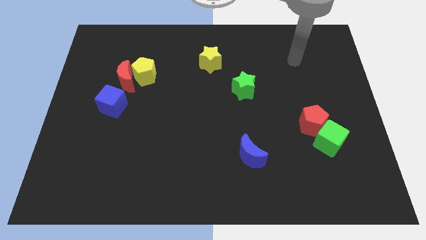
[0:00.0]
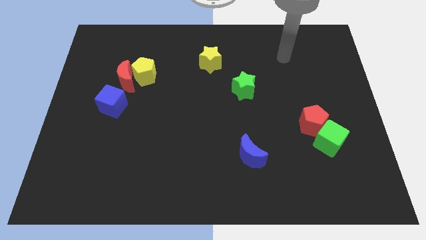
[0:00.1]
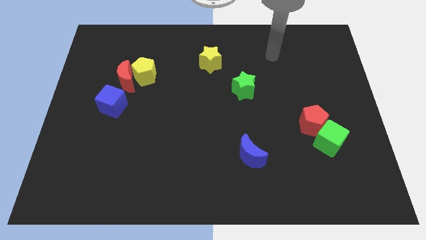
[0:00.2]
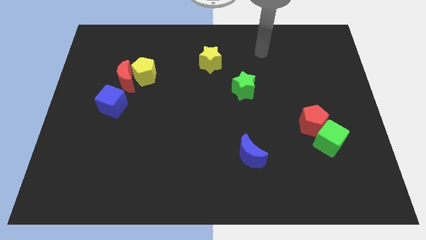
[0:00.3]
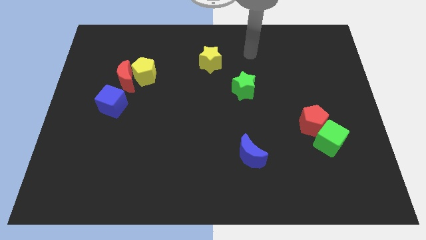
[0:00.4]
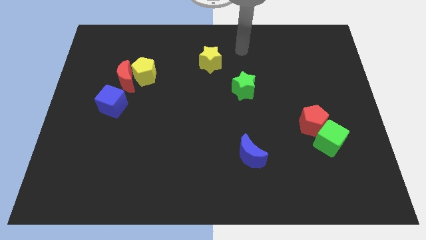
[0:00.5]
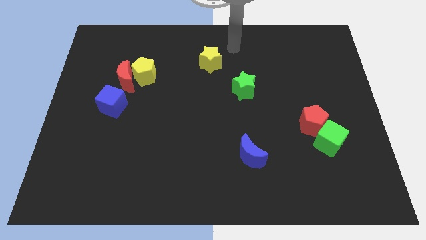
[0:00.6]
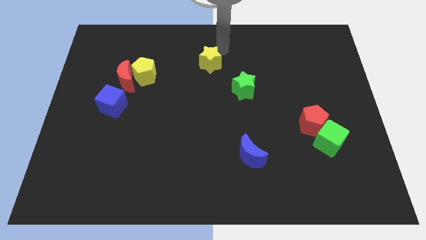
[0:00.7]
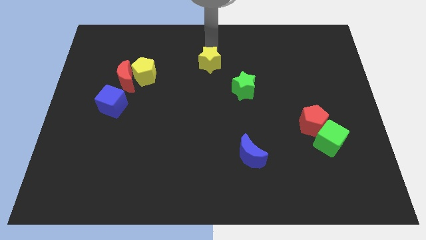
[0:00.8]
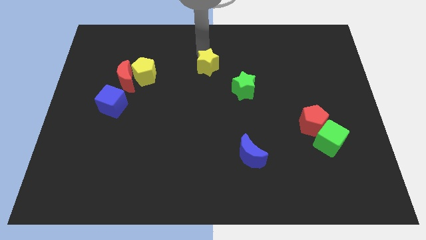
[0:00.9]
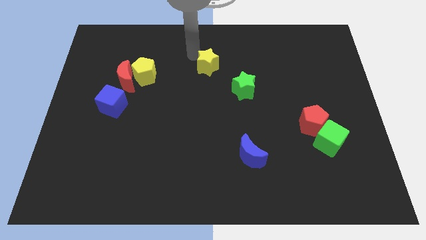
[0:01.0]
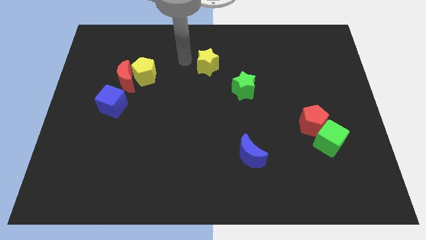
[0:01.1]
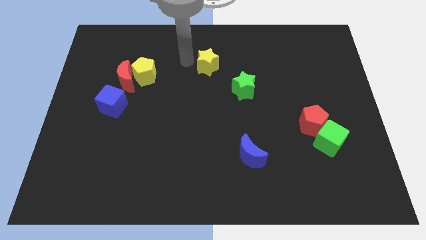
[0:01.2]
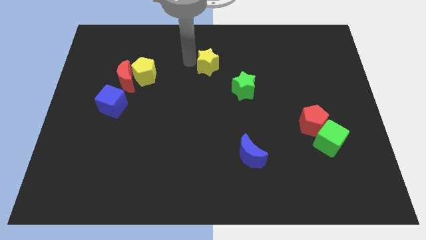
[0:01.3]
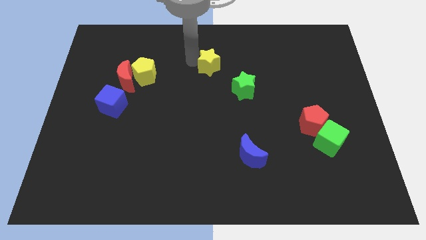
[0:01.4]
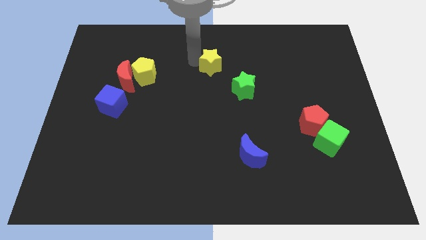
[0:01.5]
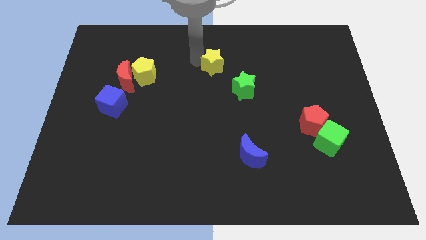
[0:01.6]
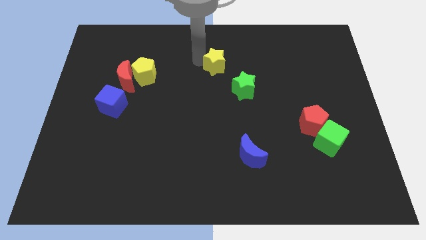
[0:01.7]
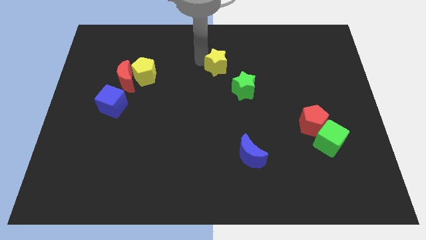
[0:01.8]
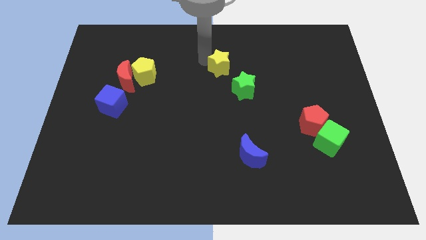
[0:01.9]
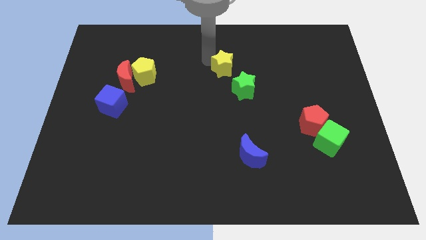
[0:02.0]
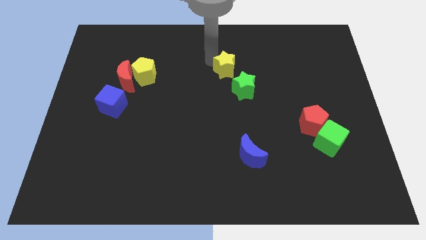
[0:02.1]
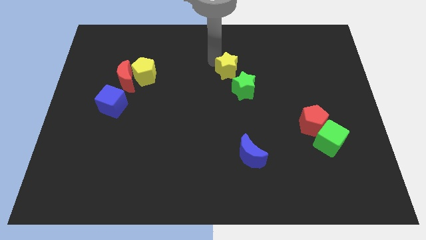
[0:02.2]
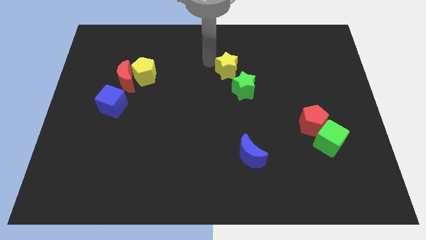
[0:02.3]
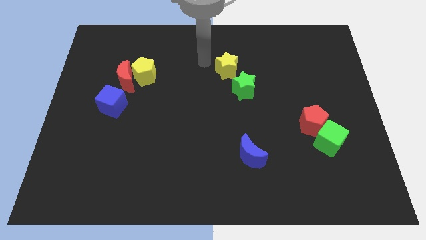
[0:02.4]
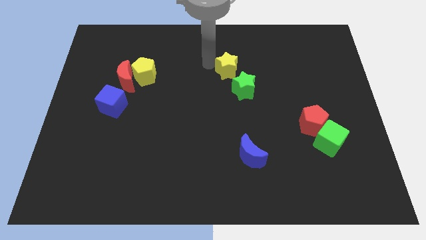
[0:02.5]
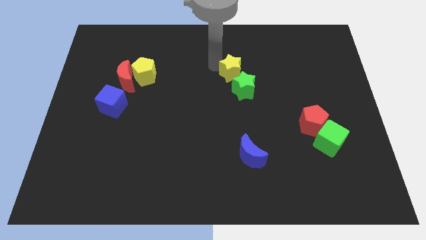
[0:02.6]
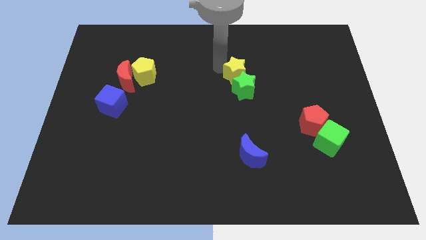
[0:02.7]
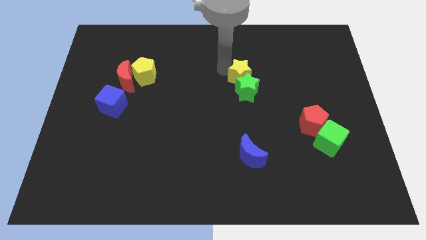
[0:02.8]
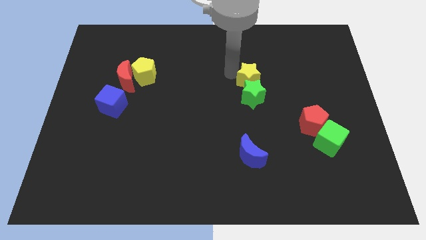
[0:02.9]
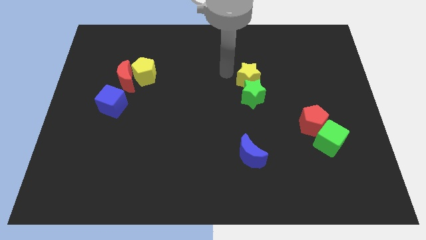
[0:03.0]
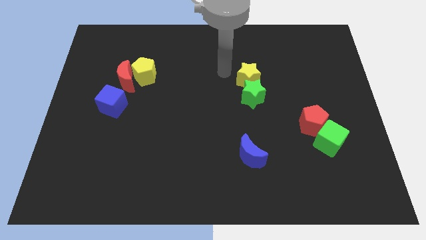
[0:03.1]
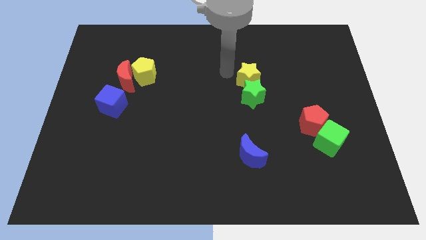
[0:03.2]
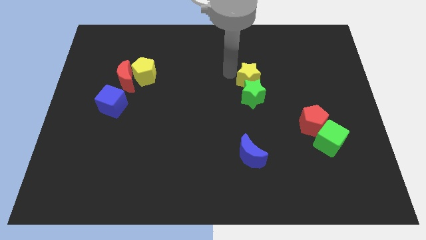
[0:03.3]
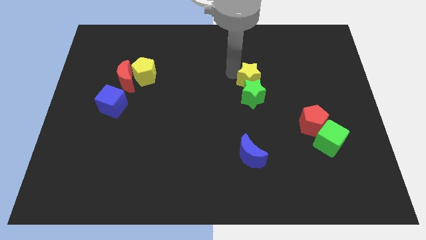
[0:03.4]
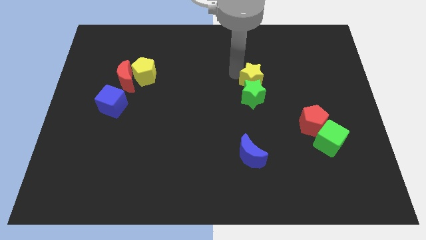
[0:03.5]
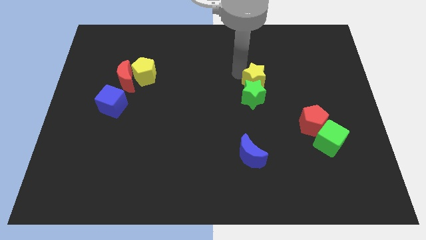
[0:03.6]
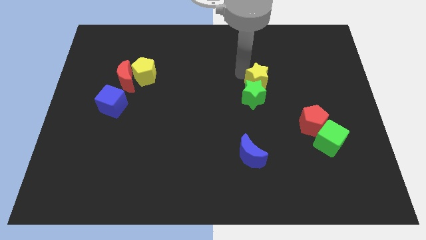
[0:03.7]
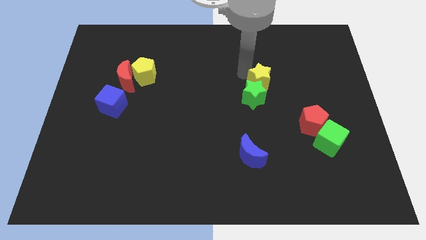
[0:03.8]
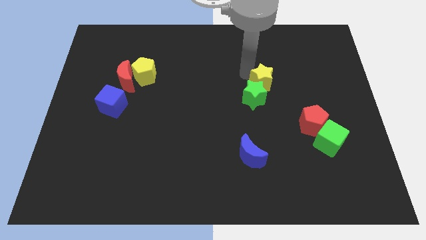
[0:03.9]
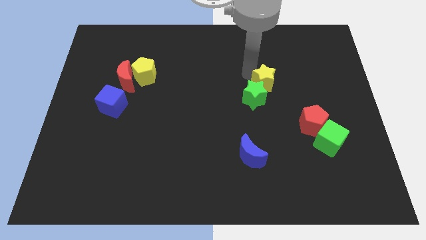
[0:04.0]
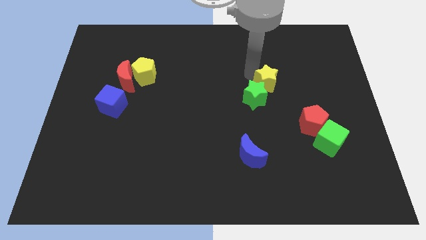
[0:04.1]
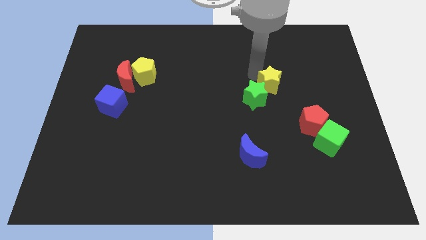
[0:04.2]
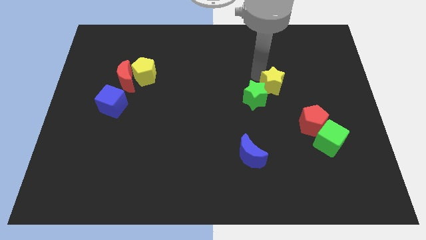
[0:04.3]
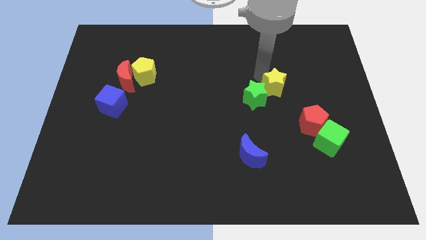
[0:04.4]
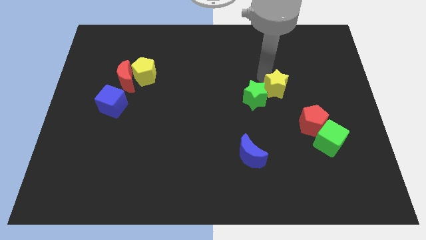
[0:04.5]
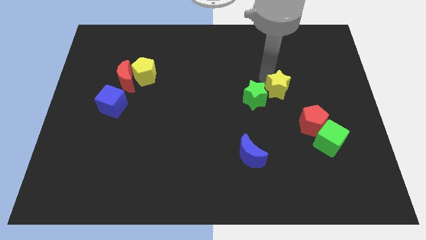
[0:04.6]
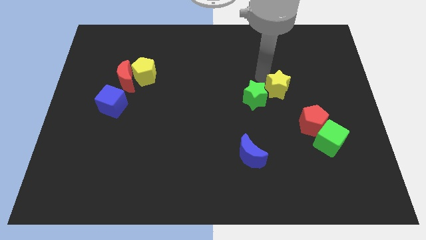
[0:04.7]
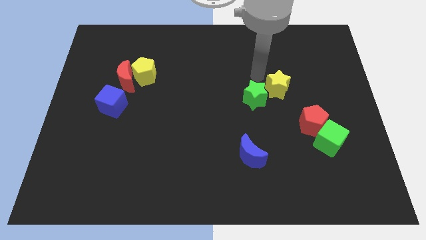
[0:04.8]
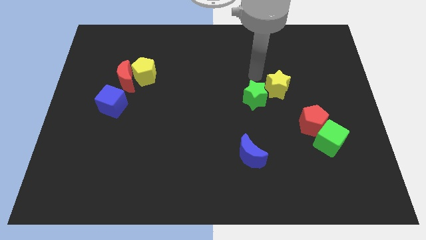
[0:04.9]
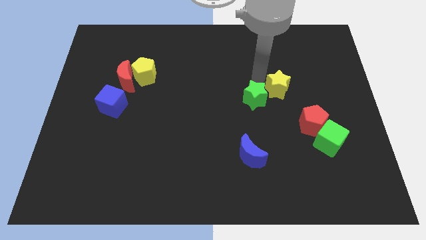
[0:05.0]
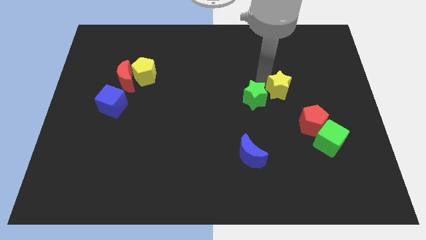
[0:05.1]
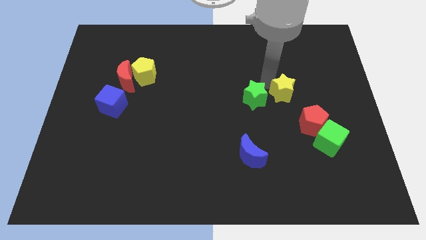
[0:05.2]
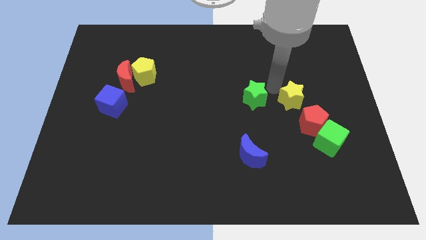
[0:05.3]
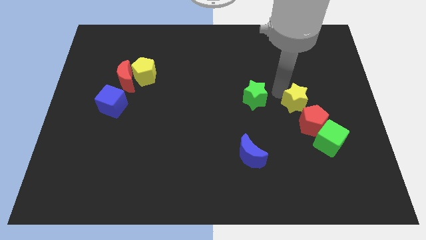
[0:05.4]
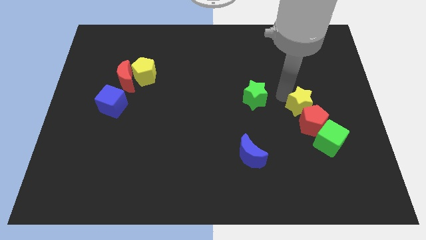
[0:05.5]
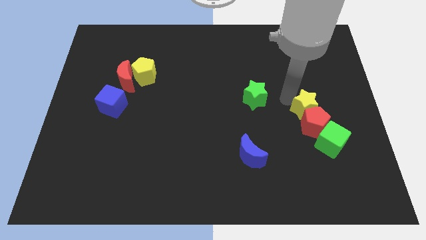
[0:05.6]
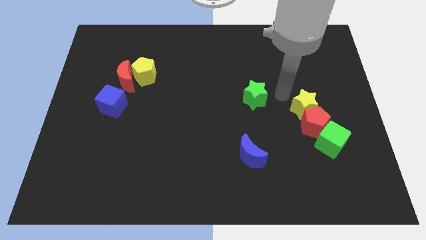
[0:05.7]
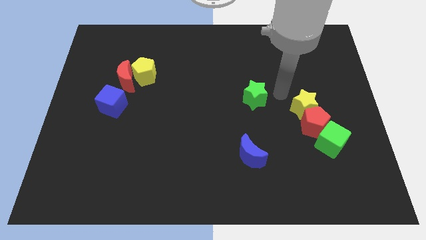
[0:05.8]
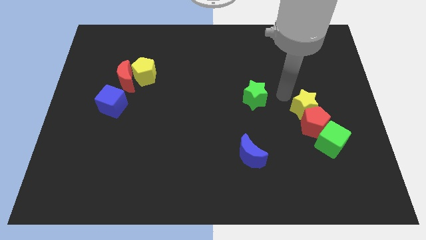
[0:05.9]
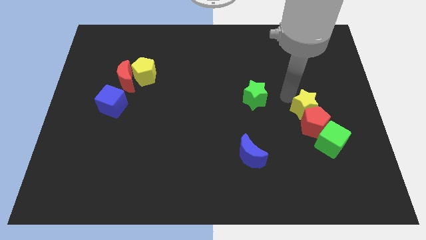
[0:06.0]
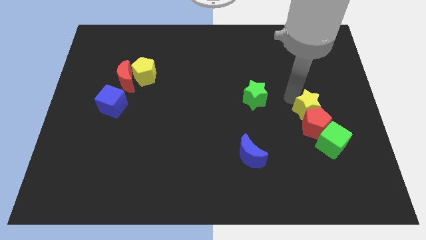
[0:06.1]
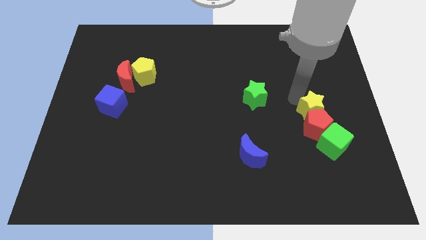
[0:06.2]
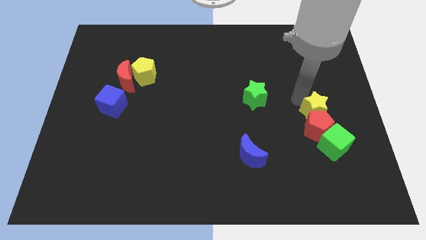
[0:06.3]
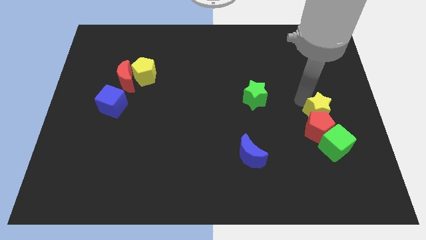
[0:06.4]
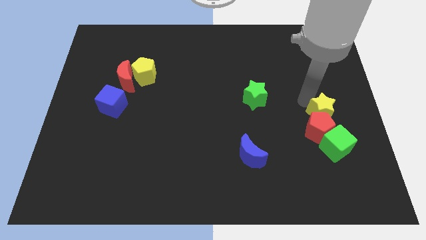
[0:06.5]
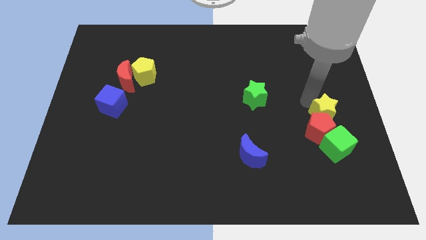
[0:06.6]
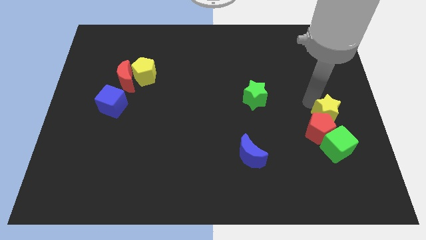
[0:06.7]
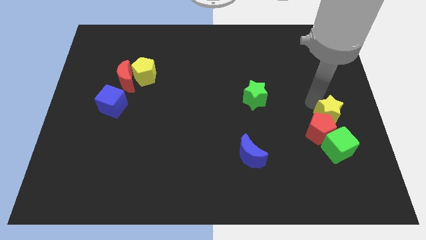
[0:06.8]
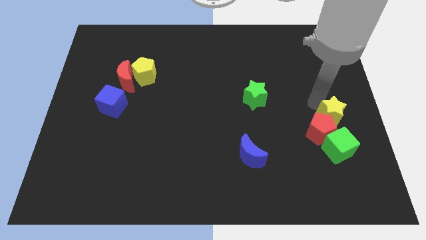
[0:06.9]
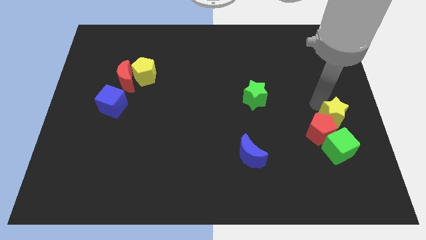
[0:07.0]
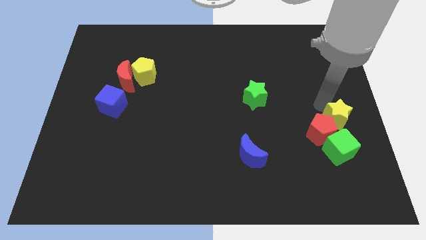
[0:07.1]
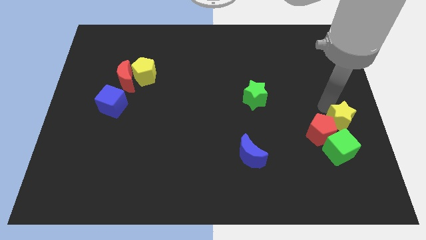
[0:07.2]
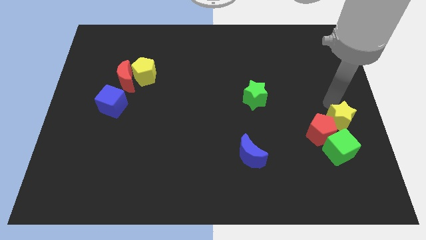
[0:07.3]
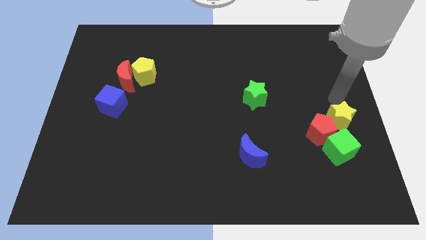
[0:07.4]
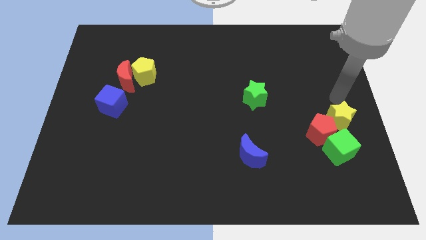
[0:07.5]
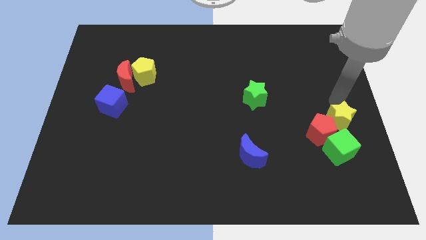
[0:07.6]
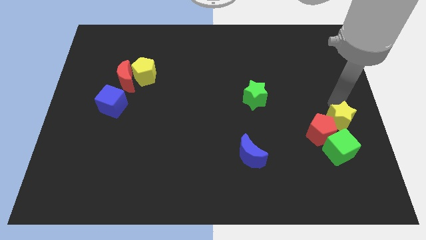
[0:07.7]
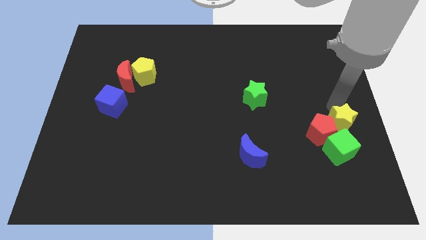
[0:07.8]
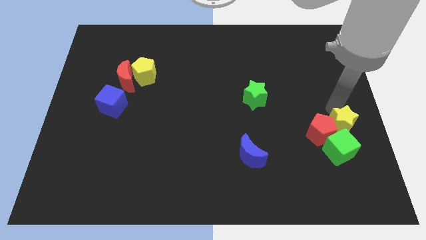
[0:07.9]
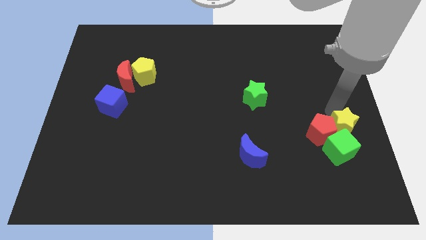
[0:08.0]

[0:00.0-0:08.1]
push the yellow star next to the green cube

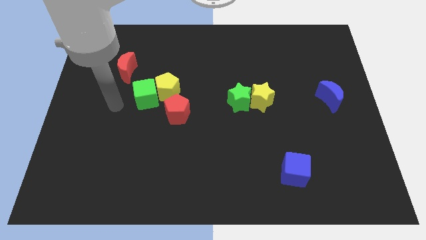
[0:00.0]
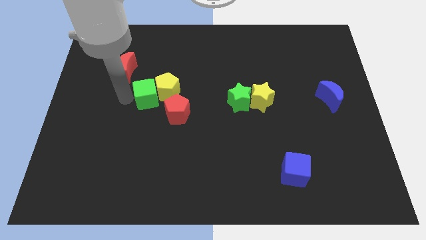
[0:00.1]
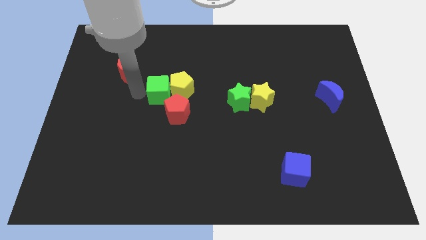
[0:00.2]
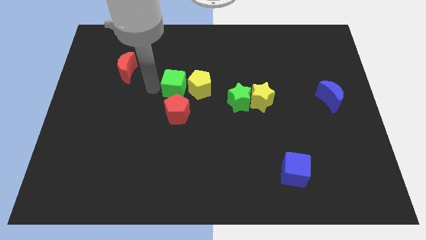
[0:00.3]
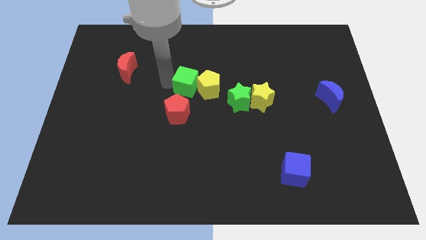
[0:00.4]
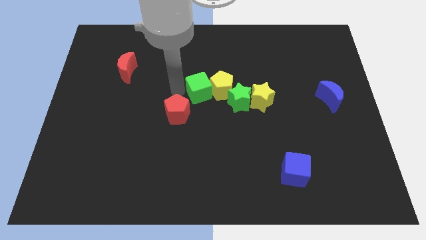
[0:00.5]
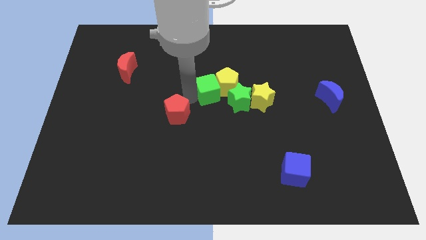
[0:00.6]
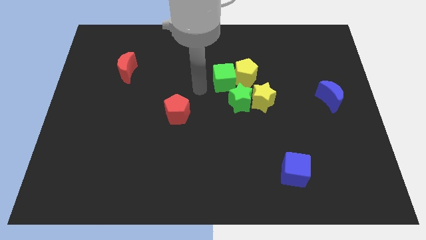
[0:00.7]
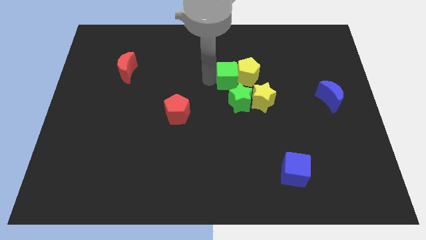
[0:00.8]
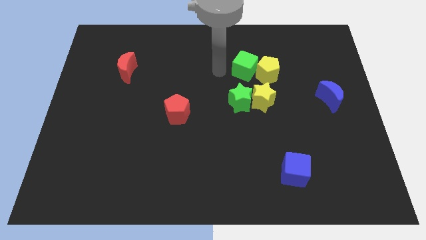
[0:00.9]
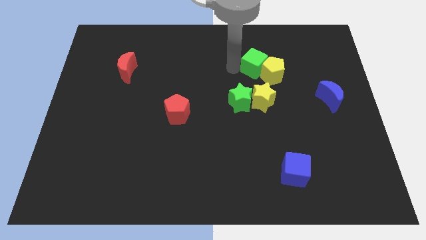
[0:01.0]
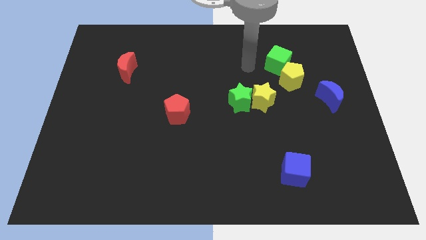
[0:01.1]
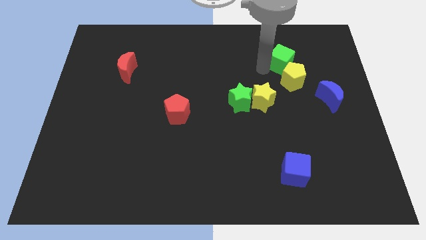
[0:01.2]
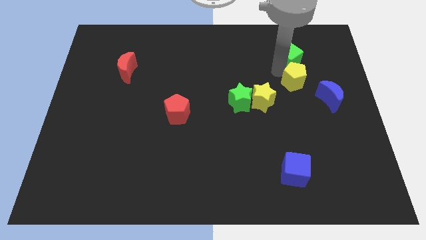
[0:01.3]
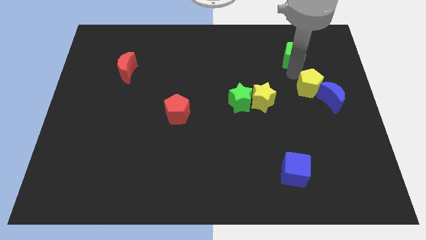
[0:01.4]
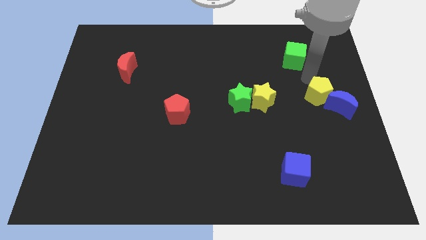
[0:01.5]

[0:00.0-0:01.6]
move the yellow pentagon close to the blue moon
